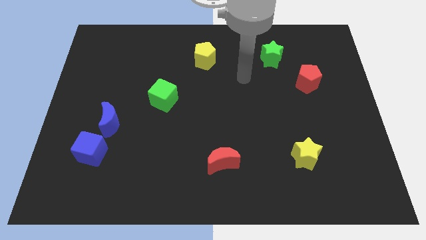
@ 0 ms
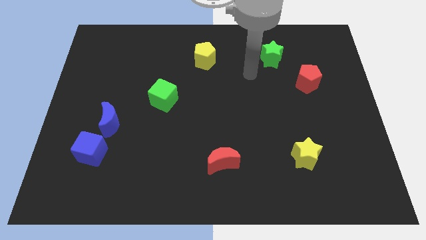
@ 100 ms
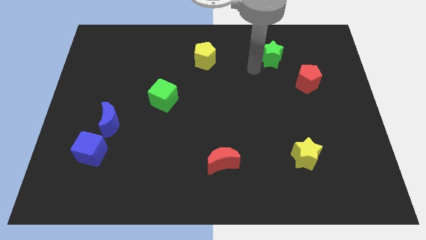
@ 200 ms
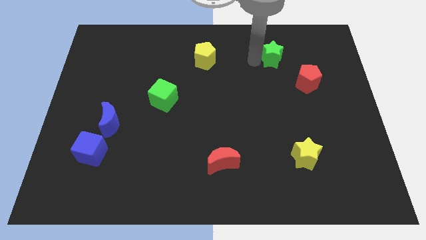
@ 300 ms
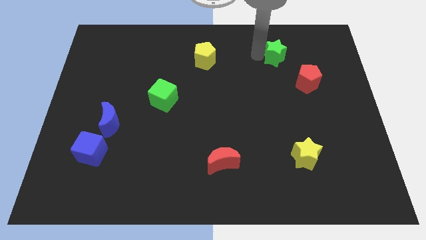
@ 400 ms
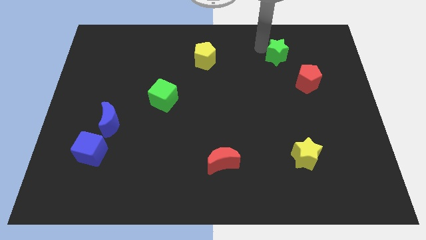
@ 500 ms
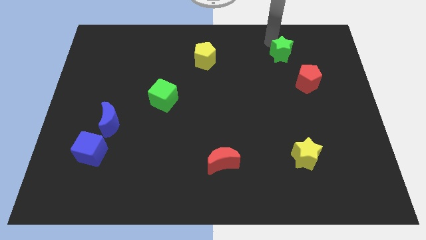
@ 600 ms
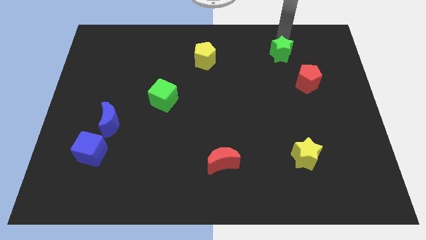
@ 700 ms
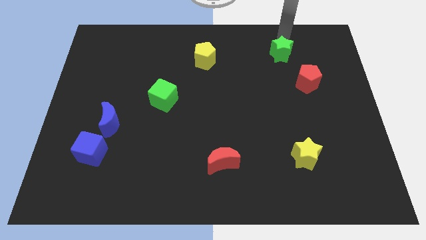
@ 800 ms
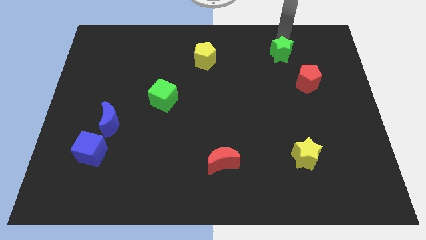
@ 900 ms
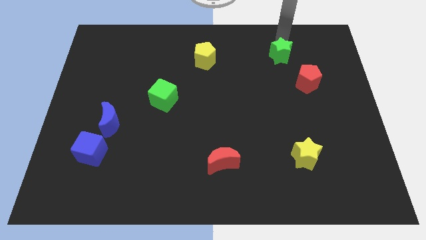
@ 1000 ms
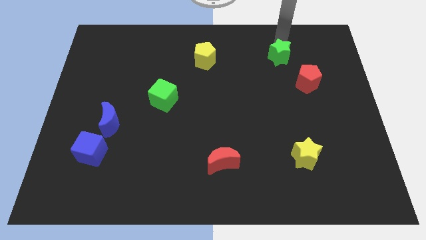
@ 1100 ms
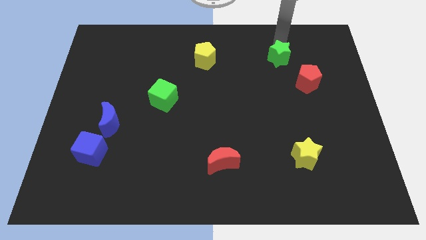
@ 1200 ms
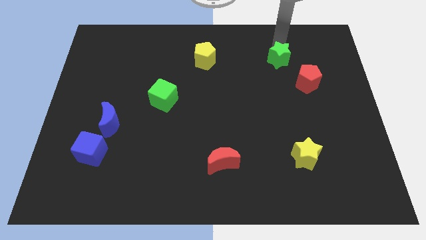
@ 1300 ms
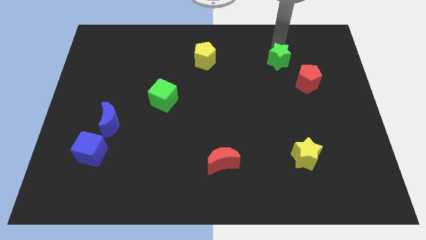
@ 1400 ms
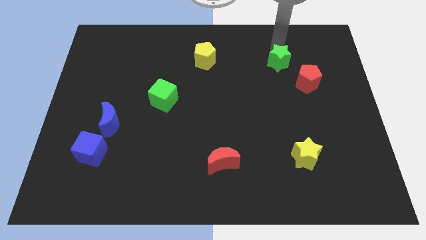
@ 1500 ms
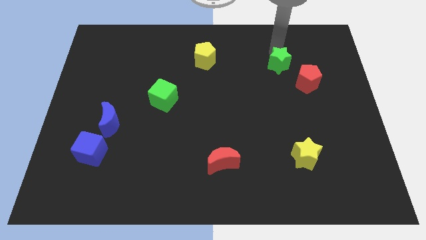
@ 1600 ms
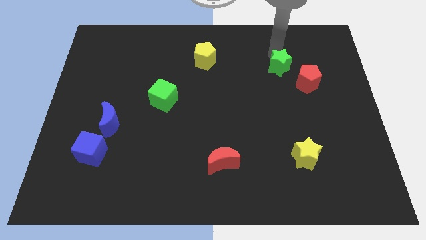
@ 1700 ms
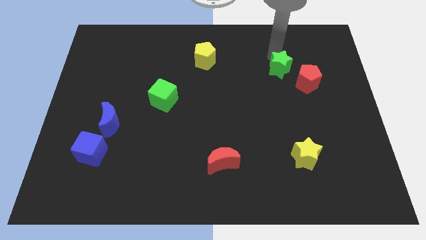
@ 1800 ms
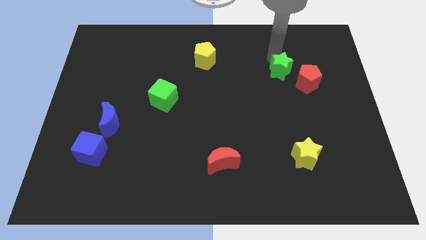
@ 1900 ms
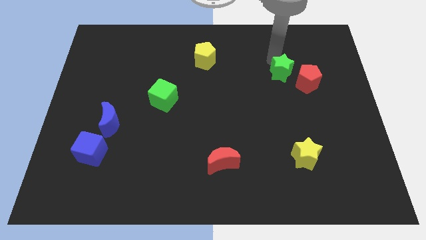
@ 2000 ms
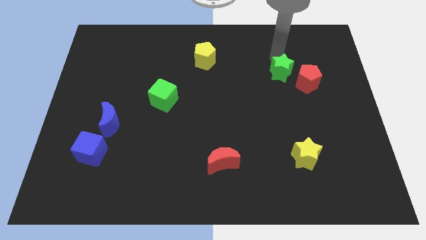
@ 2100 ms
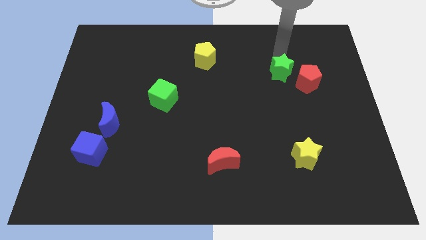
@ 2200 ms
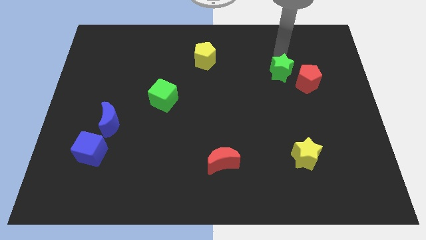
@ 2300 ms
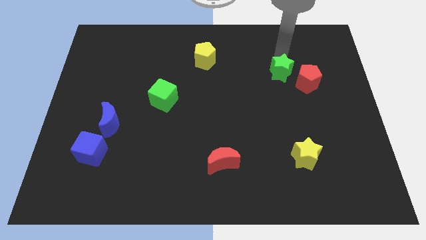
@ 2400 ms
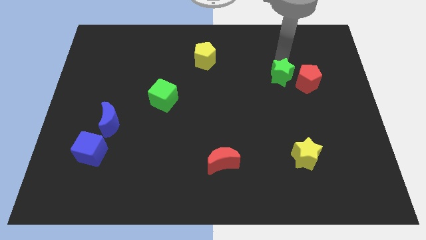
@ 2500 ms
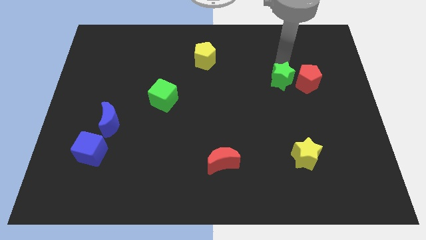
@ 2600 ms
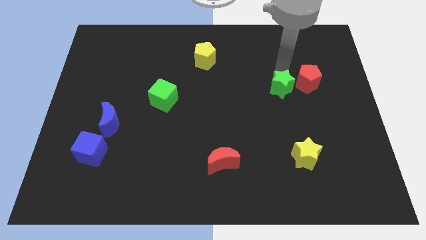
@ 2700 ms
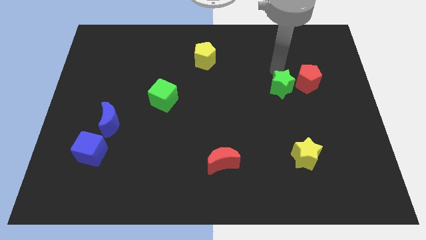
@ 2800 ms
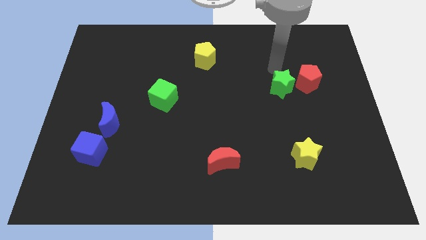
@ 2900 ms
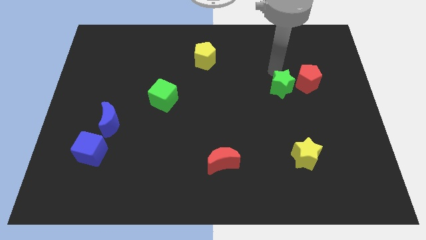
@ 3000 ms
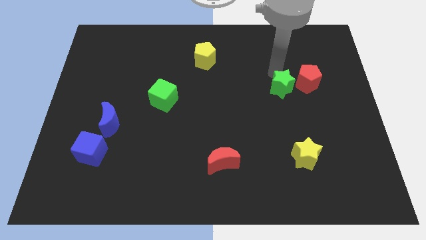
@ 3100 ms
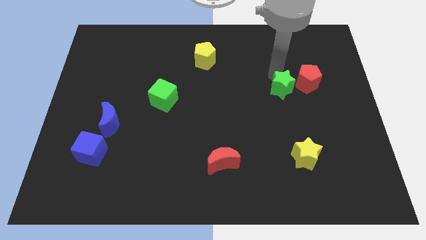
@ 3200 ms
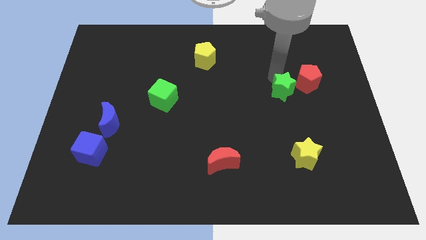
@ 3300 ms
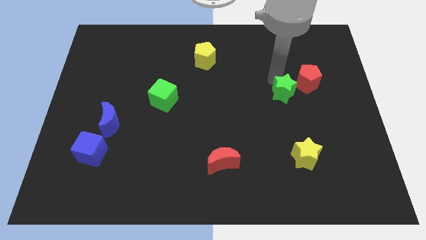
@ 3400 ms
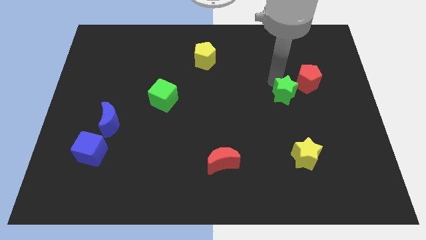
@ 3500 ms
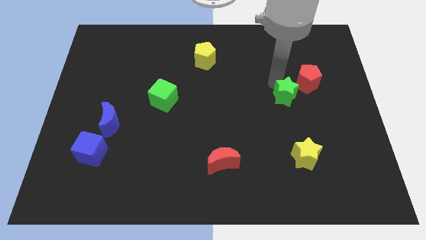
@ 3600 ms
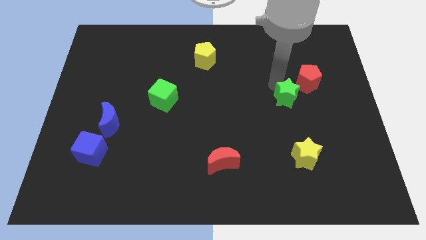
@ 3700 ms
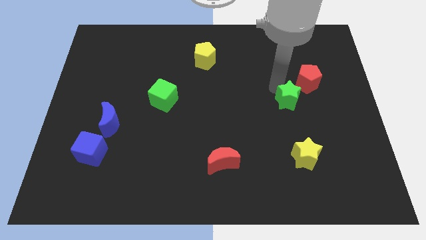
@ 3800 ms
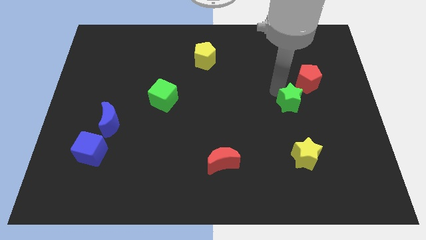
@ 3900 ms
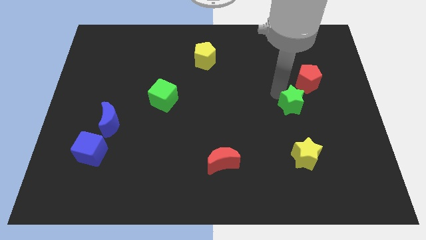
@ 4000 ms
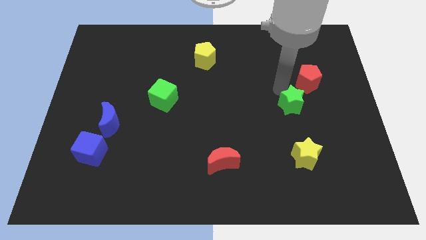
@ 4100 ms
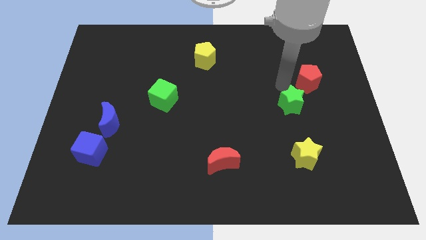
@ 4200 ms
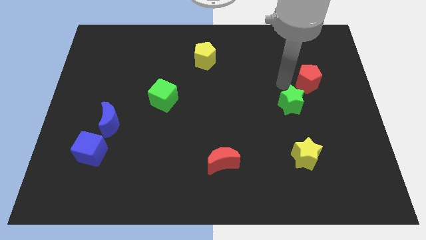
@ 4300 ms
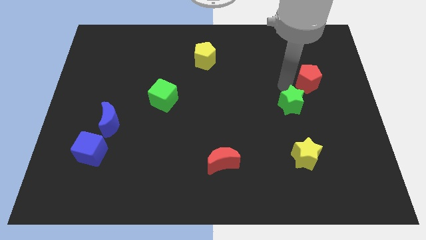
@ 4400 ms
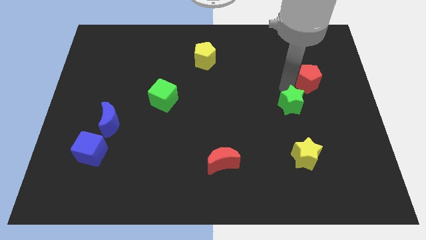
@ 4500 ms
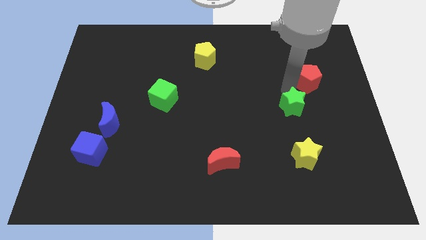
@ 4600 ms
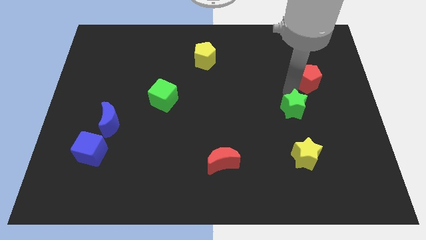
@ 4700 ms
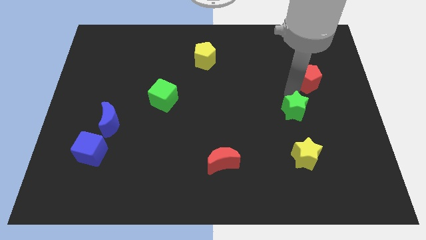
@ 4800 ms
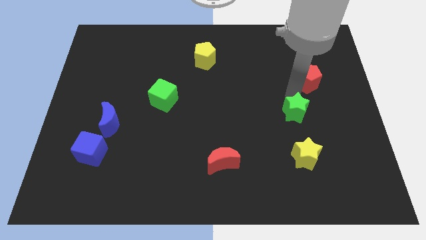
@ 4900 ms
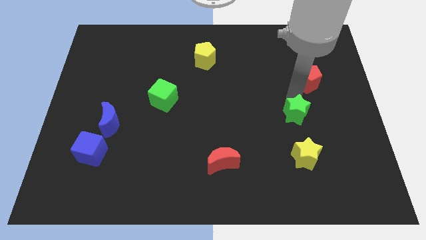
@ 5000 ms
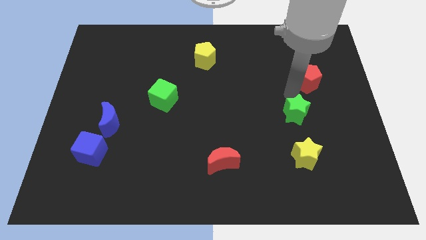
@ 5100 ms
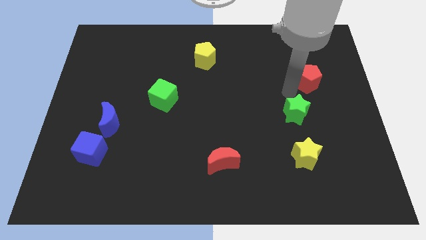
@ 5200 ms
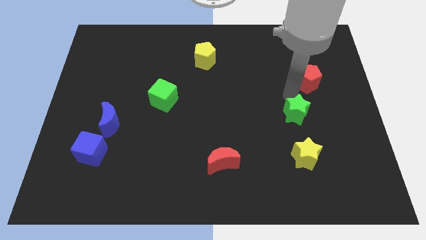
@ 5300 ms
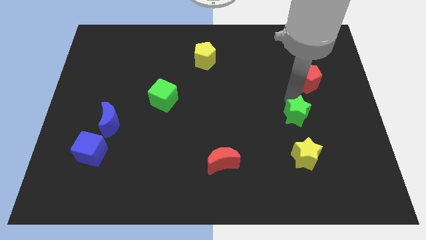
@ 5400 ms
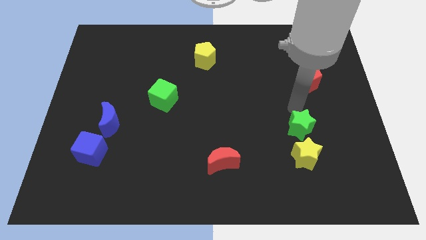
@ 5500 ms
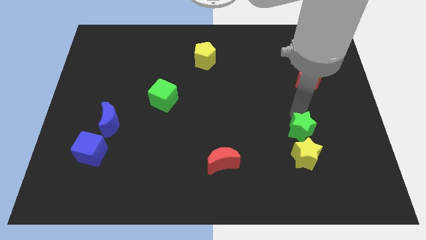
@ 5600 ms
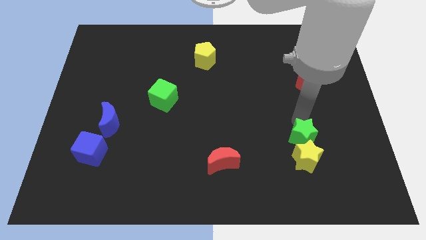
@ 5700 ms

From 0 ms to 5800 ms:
push the green star towards the yellow star

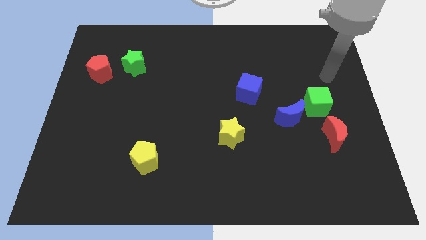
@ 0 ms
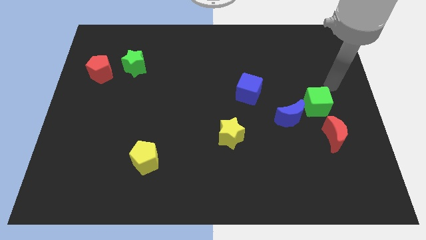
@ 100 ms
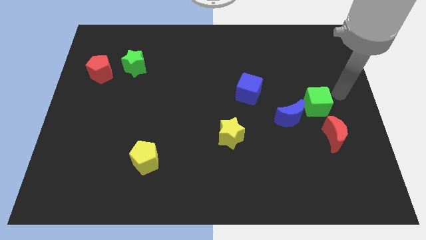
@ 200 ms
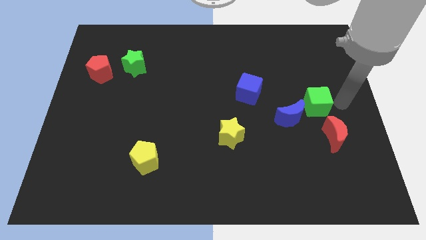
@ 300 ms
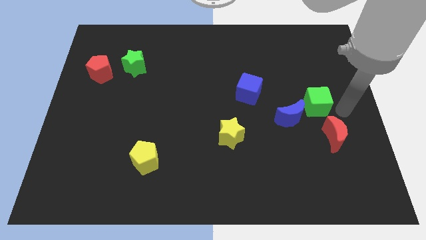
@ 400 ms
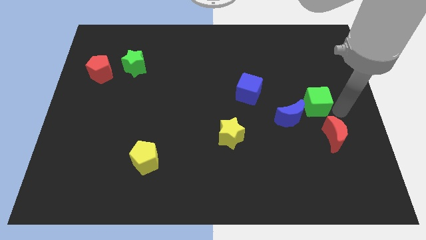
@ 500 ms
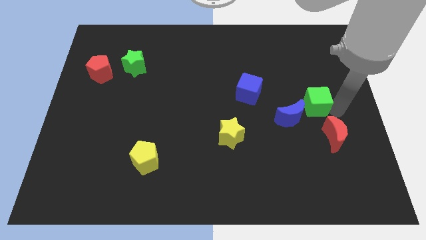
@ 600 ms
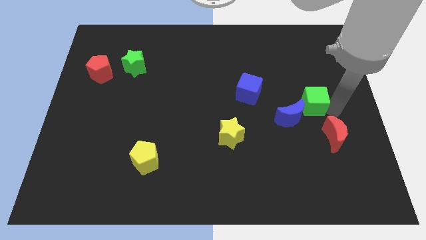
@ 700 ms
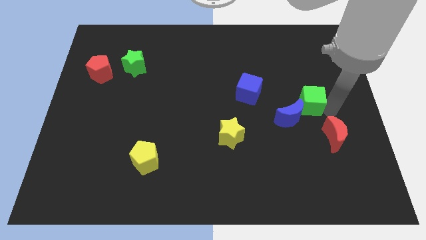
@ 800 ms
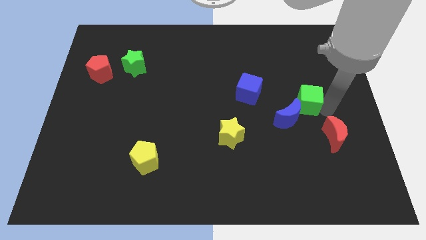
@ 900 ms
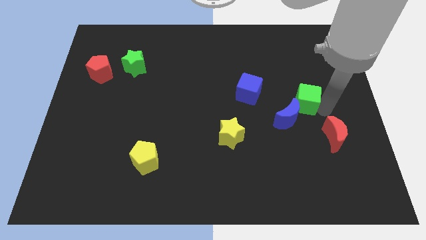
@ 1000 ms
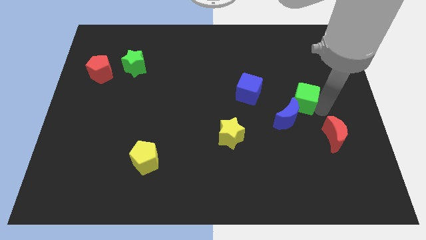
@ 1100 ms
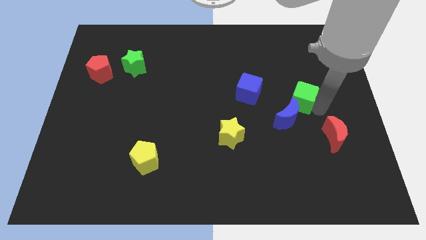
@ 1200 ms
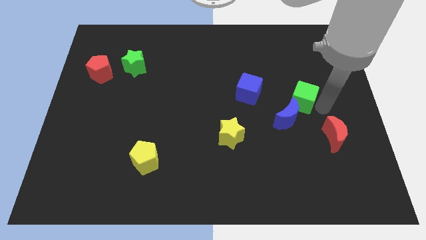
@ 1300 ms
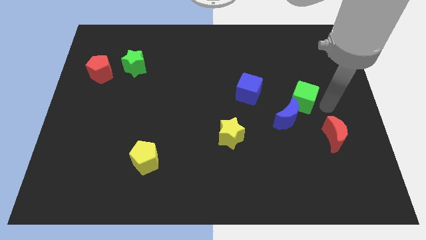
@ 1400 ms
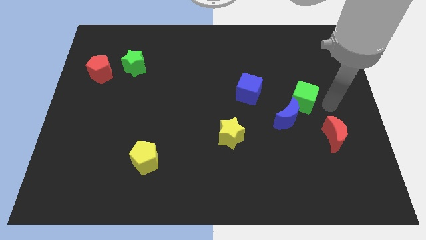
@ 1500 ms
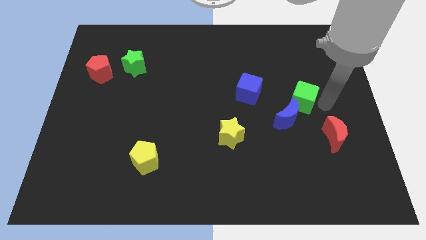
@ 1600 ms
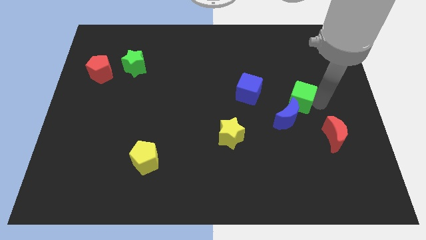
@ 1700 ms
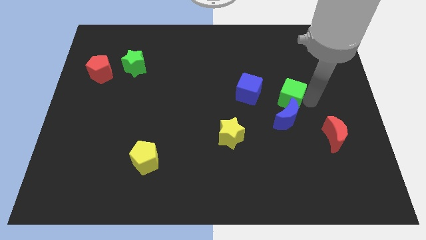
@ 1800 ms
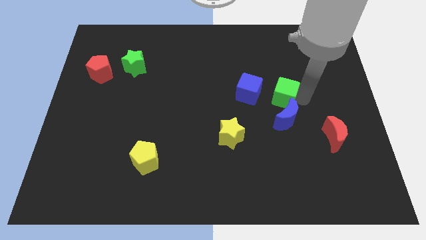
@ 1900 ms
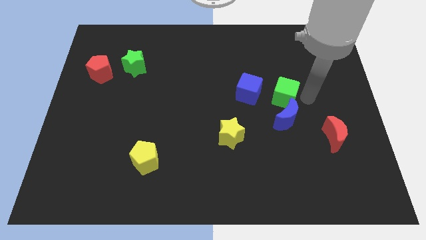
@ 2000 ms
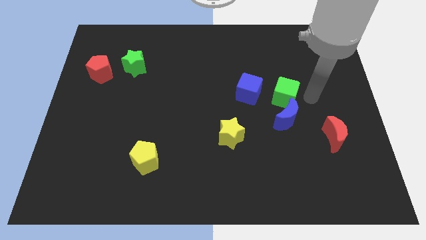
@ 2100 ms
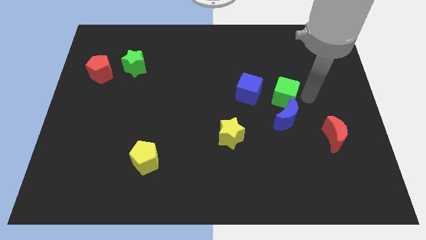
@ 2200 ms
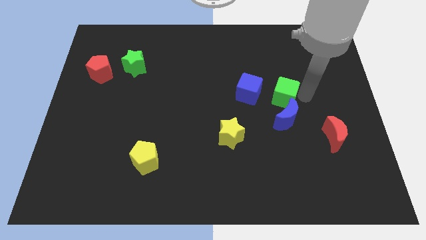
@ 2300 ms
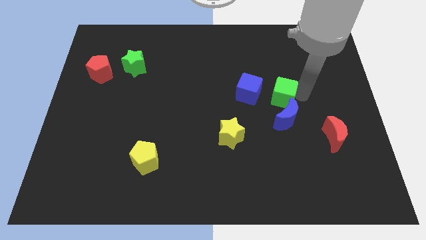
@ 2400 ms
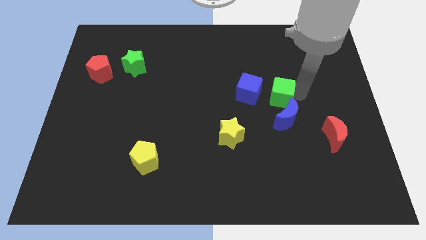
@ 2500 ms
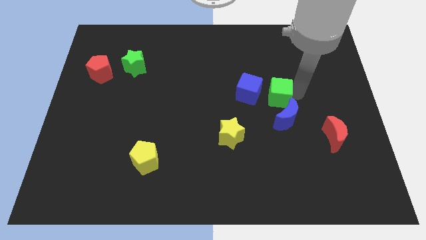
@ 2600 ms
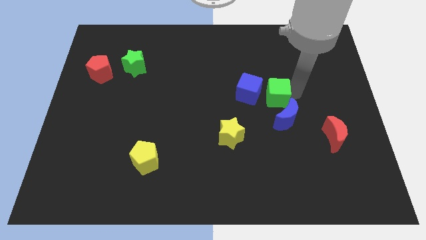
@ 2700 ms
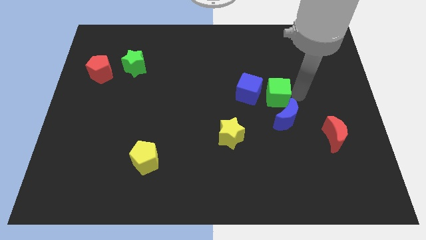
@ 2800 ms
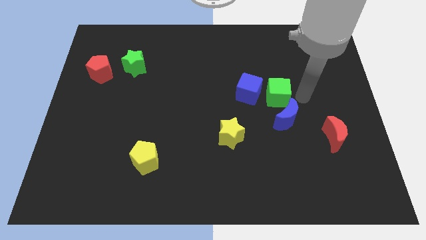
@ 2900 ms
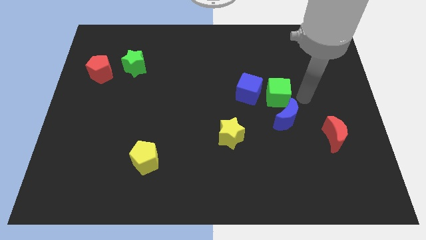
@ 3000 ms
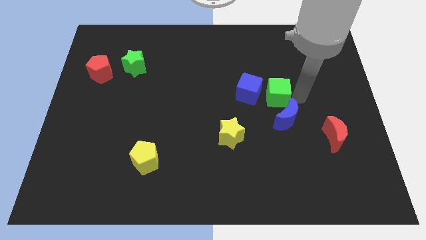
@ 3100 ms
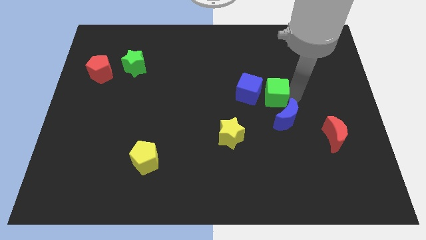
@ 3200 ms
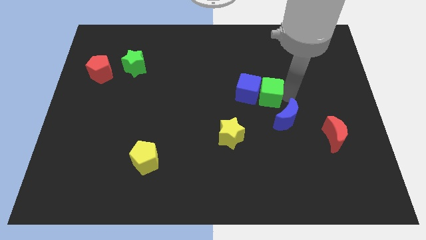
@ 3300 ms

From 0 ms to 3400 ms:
put the green cube close to the blue cube
